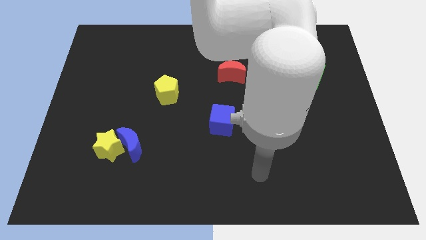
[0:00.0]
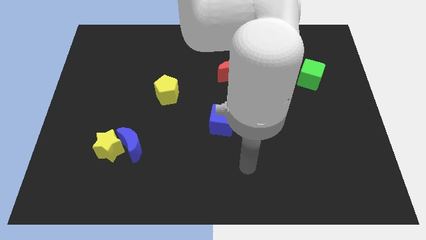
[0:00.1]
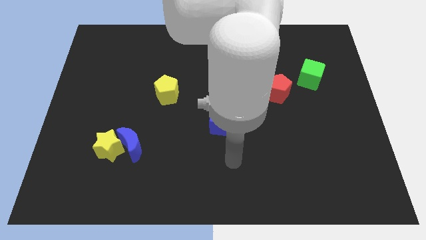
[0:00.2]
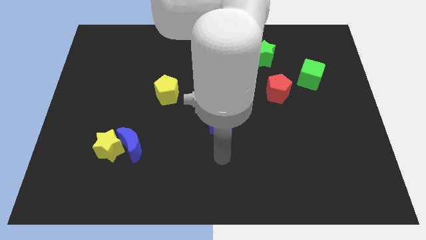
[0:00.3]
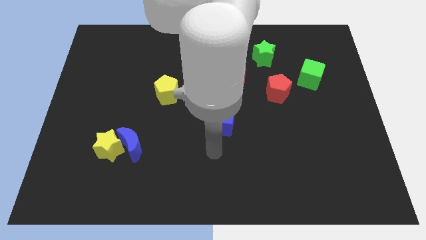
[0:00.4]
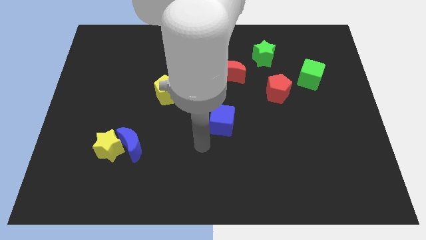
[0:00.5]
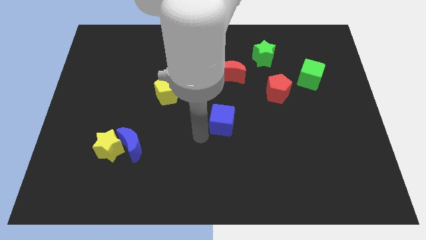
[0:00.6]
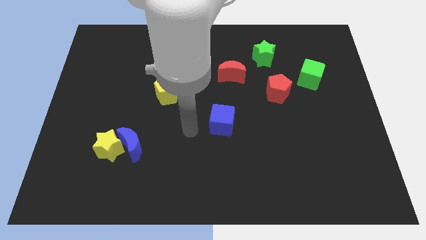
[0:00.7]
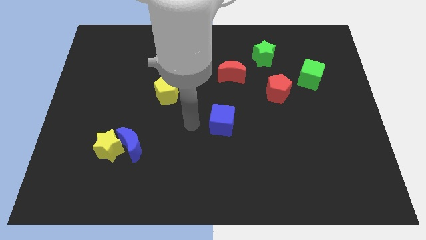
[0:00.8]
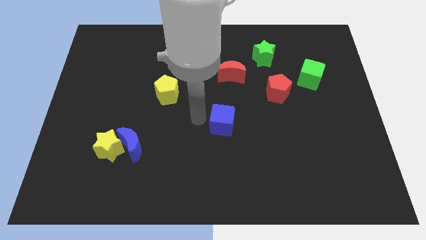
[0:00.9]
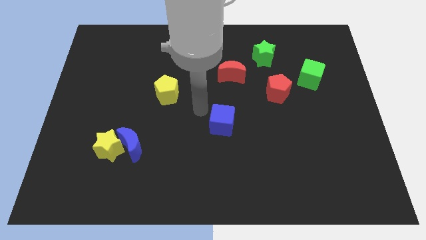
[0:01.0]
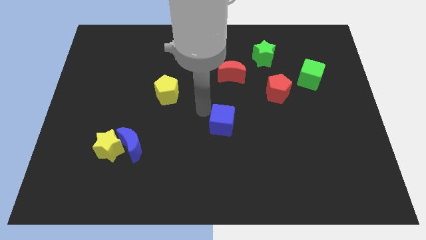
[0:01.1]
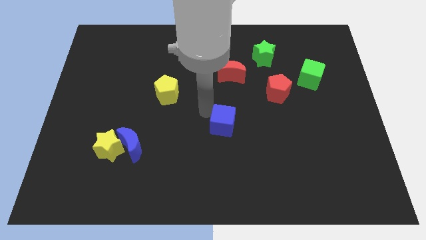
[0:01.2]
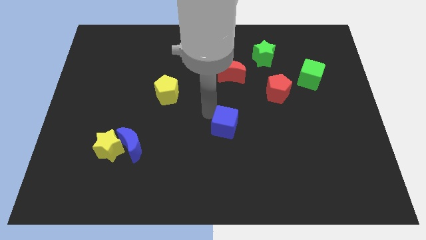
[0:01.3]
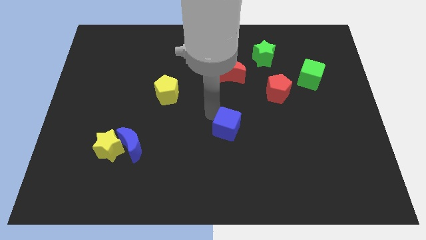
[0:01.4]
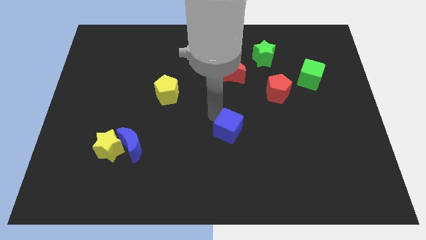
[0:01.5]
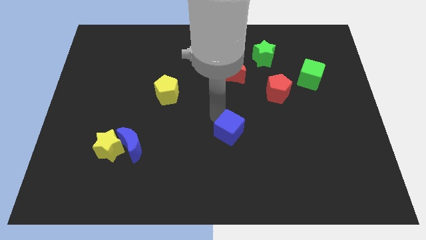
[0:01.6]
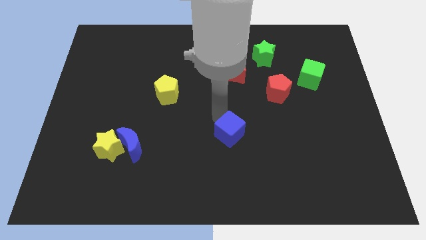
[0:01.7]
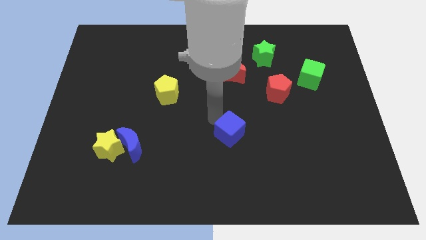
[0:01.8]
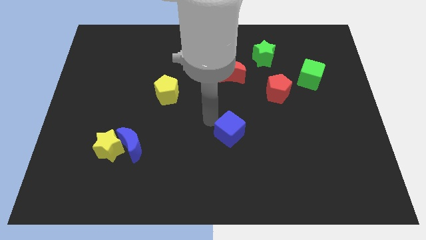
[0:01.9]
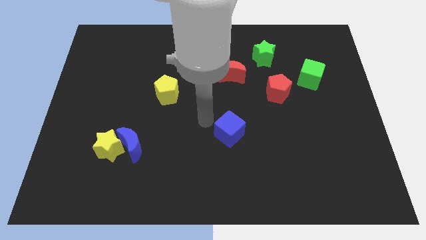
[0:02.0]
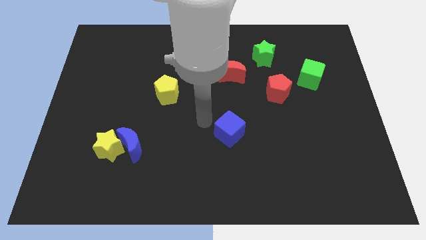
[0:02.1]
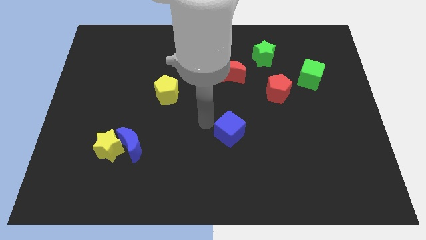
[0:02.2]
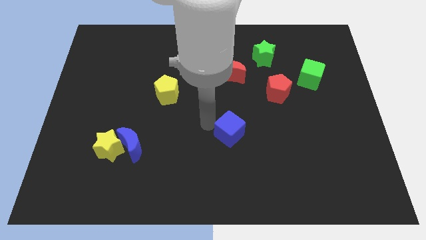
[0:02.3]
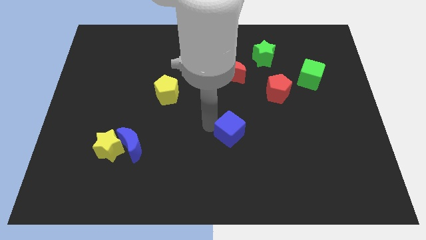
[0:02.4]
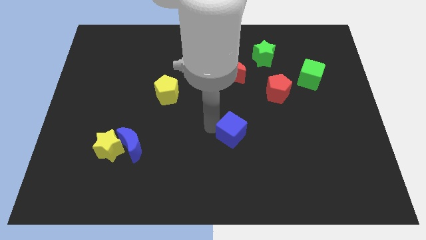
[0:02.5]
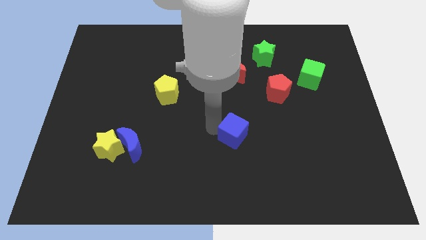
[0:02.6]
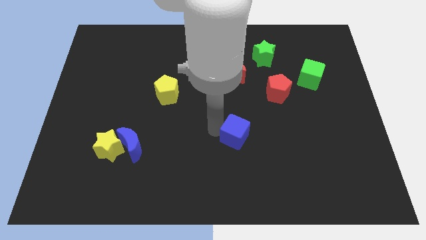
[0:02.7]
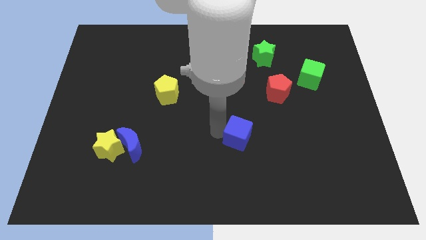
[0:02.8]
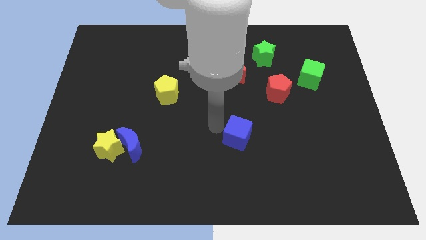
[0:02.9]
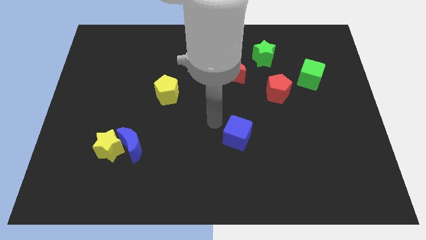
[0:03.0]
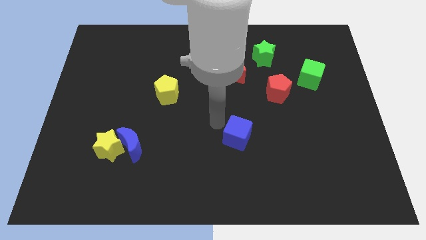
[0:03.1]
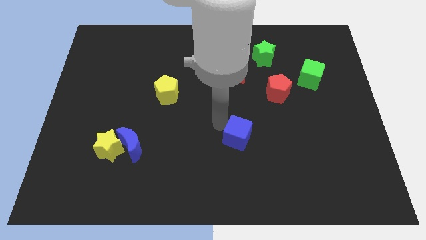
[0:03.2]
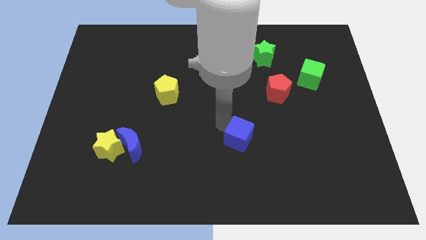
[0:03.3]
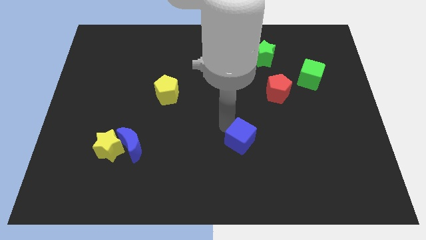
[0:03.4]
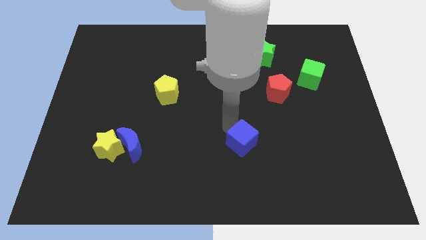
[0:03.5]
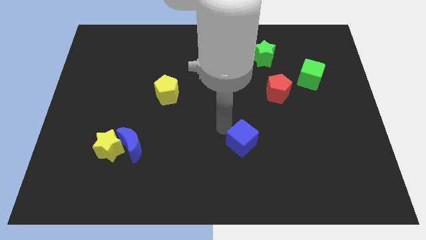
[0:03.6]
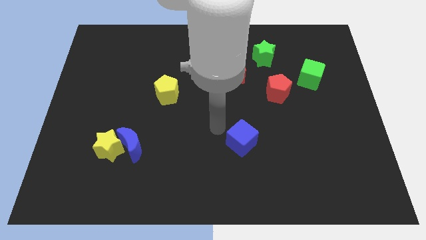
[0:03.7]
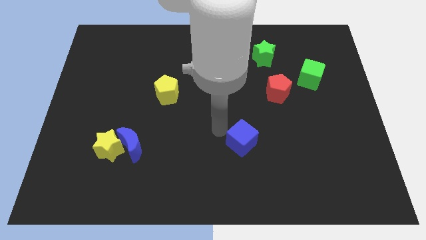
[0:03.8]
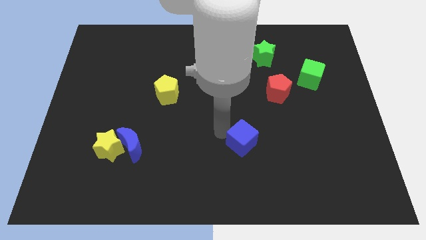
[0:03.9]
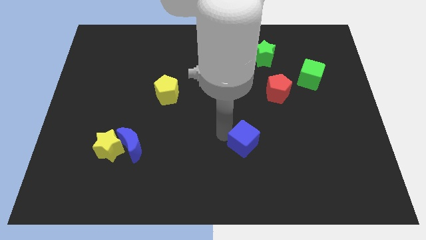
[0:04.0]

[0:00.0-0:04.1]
slightly move the blue cube diagonally downwards and to the right

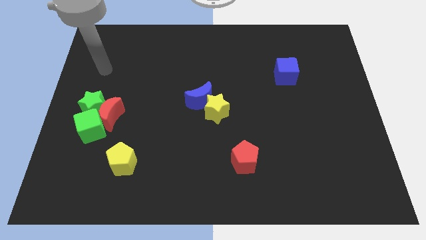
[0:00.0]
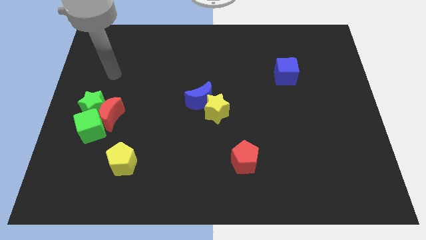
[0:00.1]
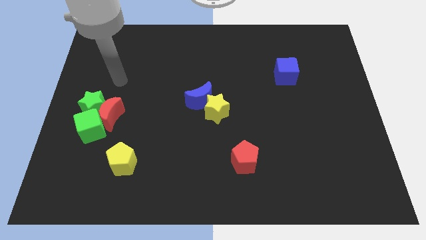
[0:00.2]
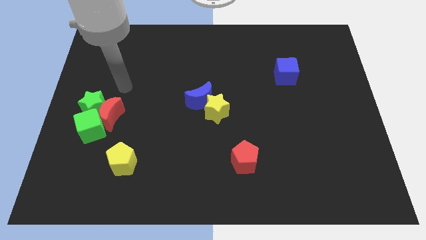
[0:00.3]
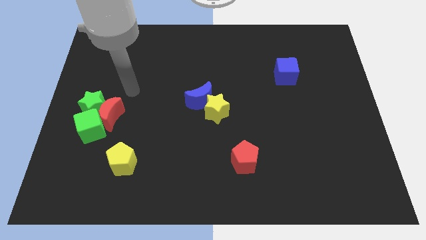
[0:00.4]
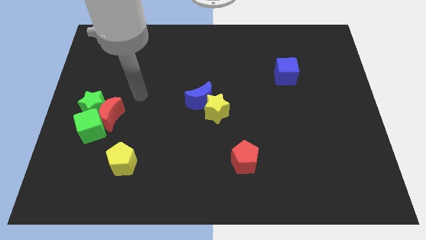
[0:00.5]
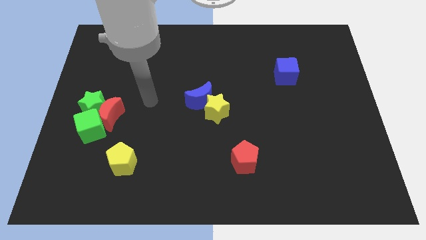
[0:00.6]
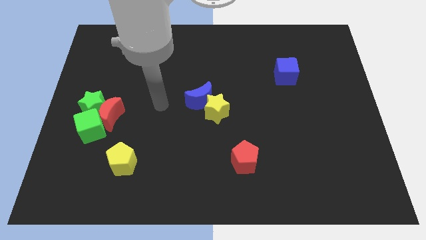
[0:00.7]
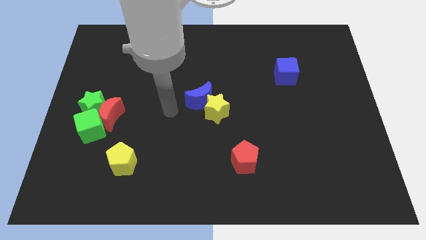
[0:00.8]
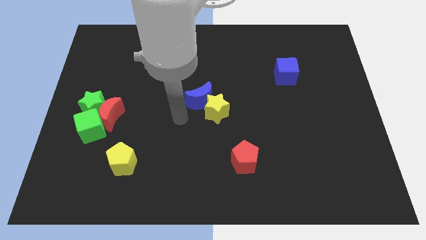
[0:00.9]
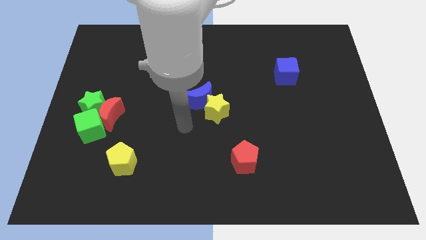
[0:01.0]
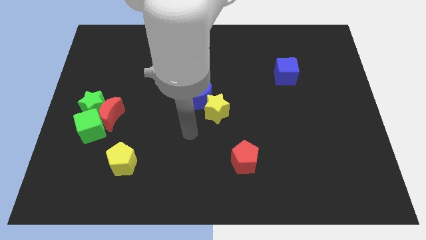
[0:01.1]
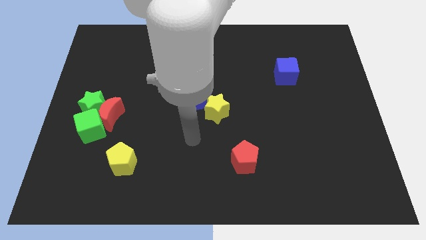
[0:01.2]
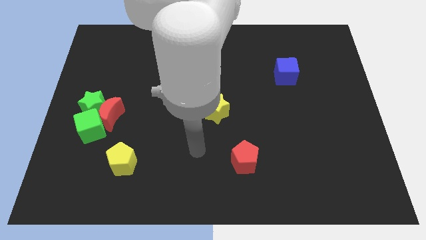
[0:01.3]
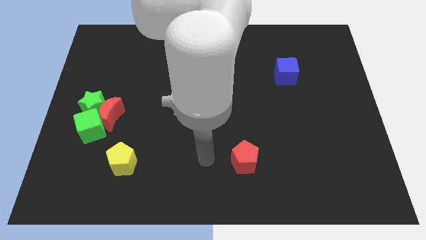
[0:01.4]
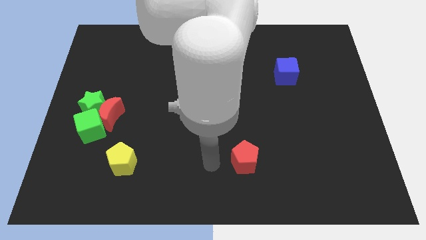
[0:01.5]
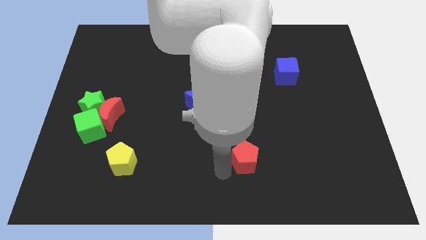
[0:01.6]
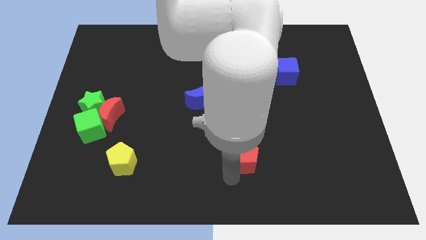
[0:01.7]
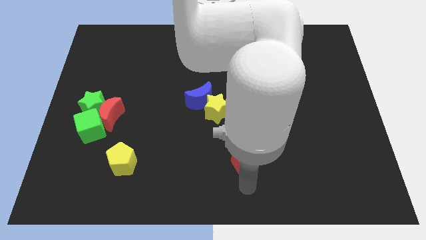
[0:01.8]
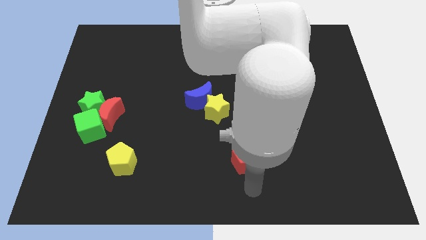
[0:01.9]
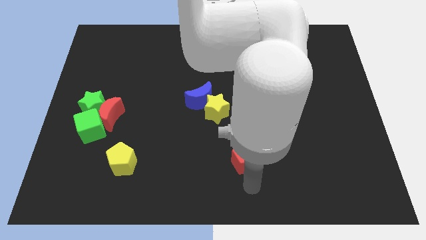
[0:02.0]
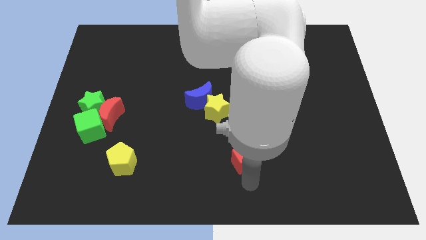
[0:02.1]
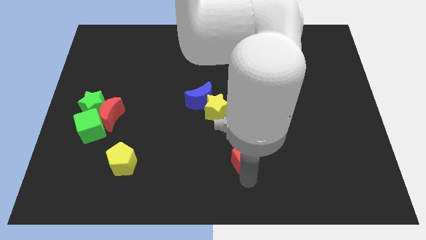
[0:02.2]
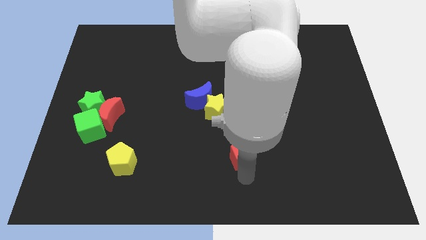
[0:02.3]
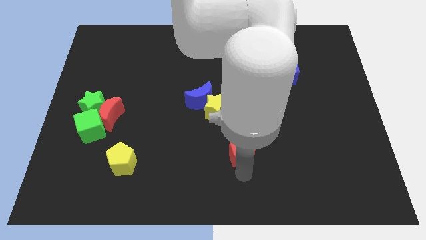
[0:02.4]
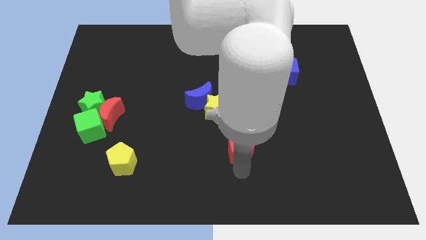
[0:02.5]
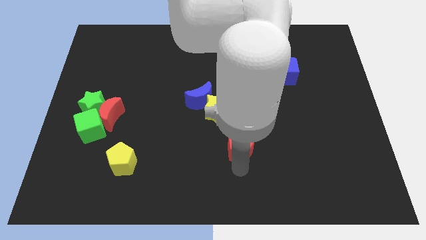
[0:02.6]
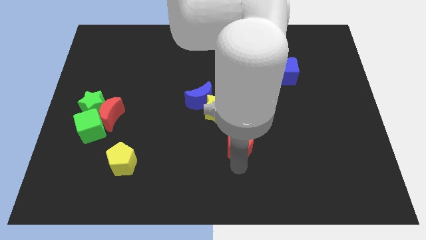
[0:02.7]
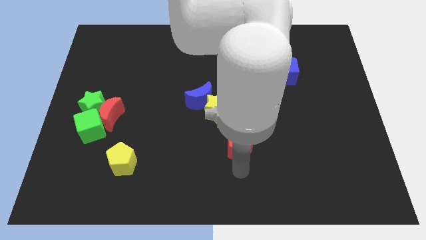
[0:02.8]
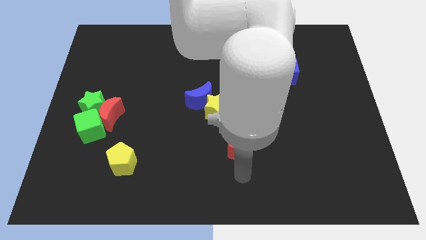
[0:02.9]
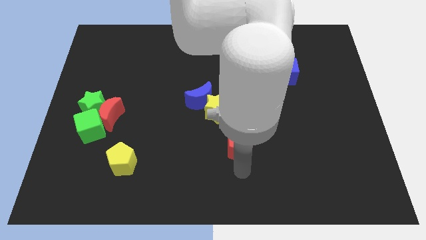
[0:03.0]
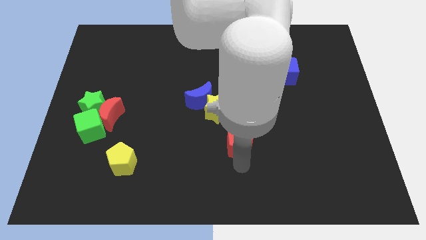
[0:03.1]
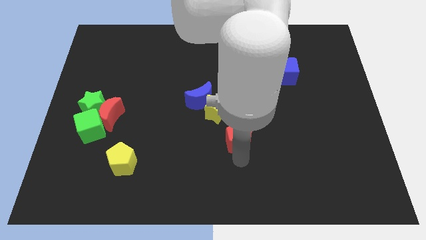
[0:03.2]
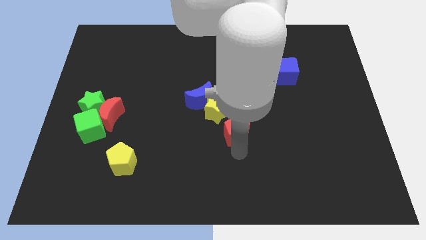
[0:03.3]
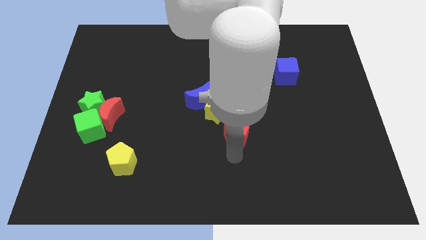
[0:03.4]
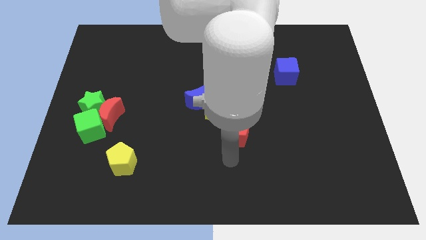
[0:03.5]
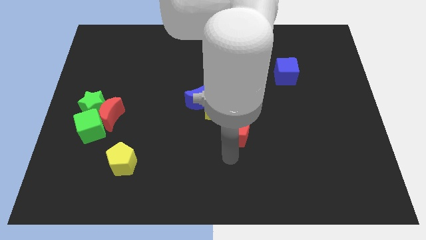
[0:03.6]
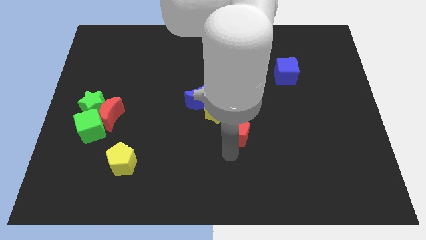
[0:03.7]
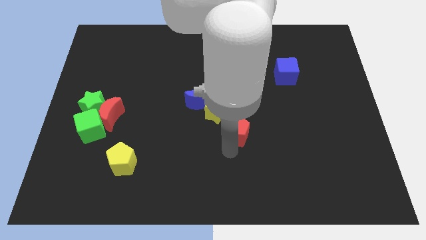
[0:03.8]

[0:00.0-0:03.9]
slightly slide the red pentagon up
